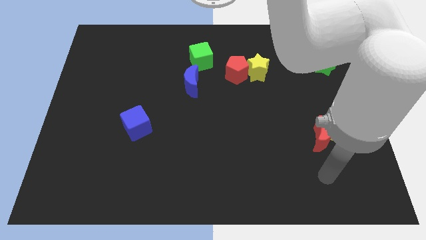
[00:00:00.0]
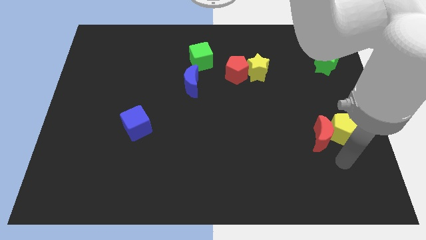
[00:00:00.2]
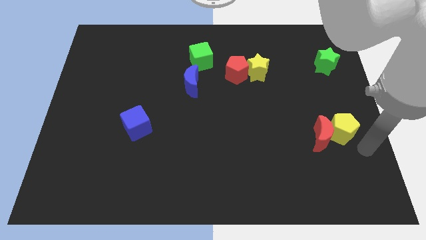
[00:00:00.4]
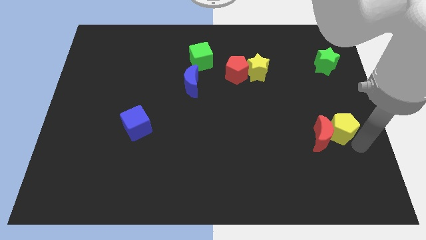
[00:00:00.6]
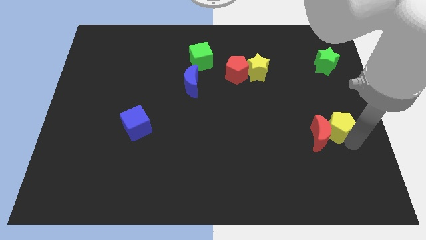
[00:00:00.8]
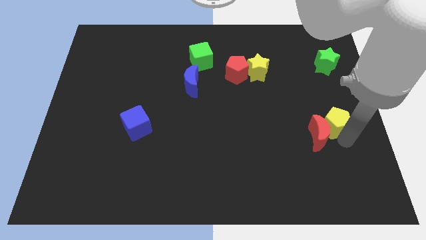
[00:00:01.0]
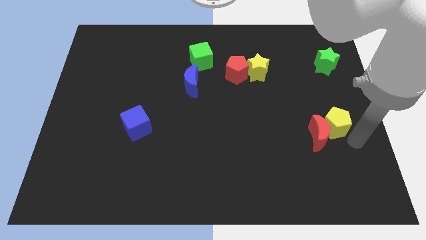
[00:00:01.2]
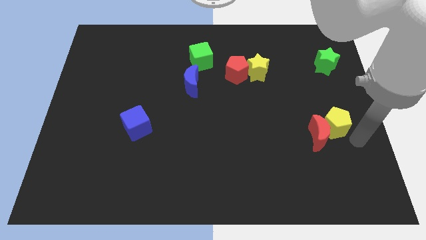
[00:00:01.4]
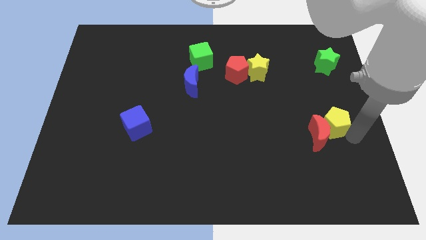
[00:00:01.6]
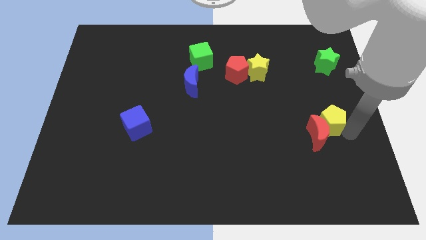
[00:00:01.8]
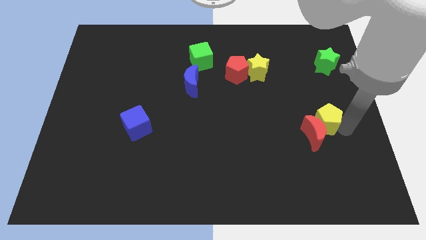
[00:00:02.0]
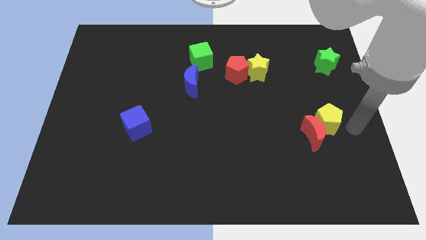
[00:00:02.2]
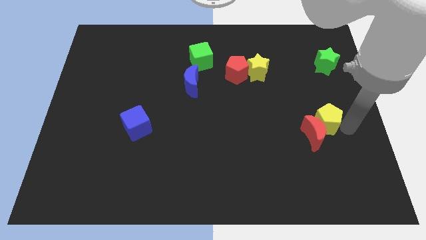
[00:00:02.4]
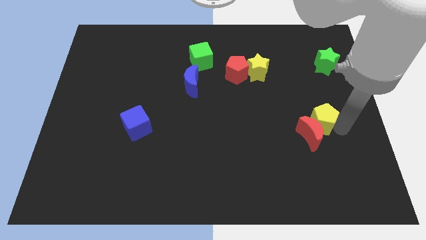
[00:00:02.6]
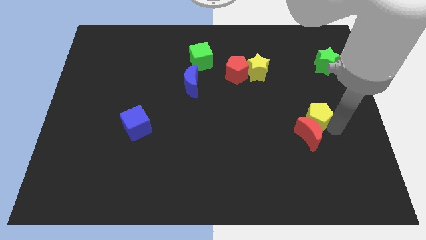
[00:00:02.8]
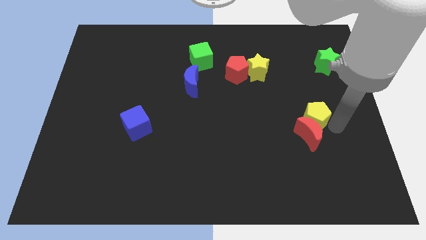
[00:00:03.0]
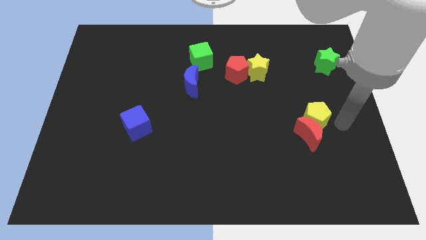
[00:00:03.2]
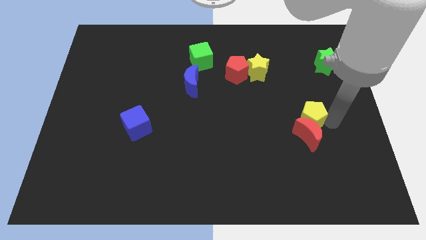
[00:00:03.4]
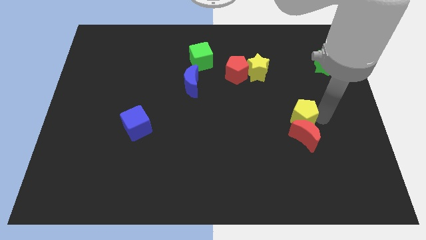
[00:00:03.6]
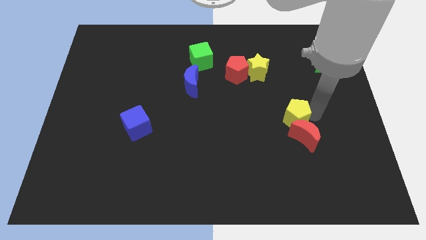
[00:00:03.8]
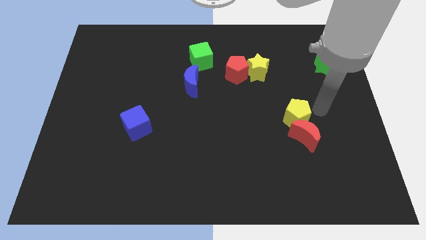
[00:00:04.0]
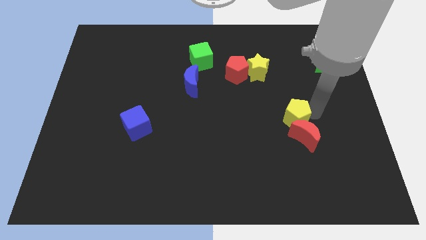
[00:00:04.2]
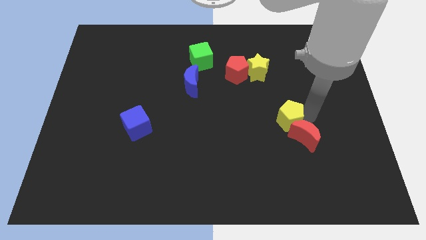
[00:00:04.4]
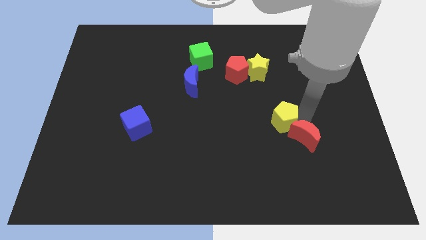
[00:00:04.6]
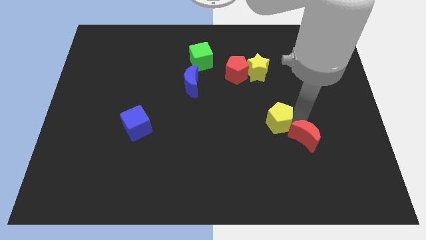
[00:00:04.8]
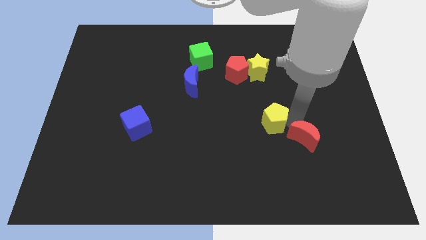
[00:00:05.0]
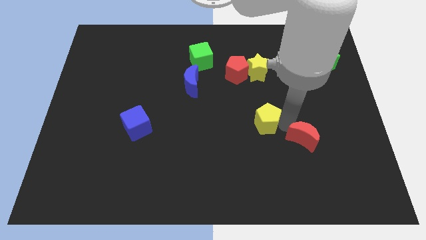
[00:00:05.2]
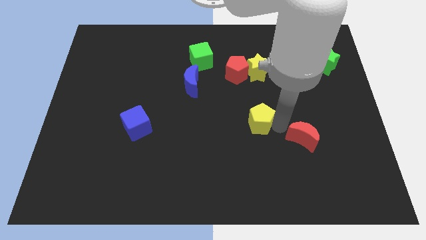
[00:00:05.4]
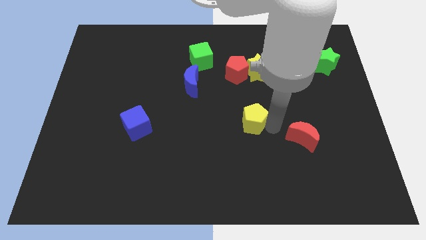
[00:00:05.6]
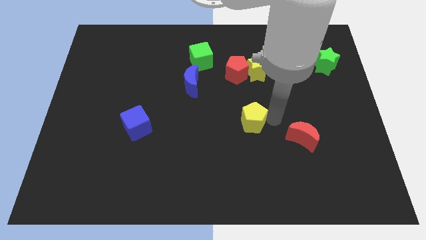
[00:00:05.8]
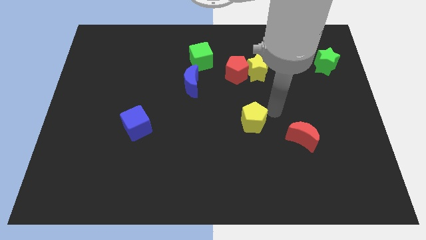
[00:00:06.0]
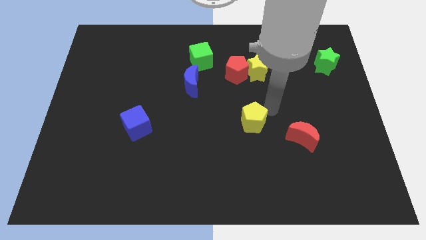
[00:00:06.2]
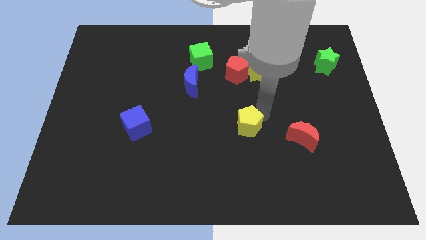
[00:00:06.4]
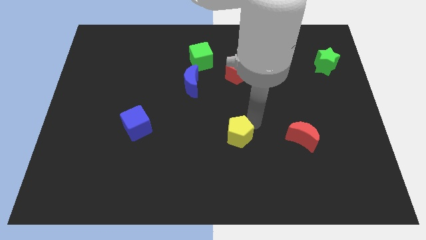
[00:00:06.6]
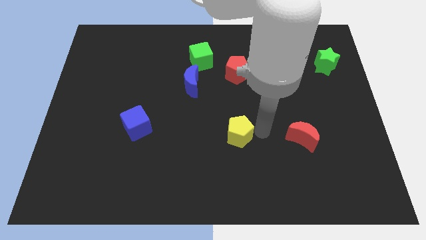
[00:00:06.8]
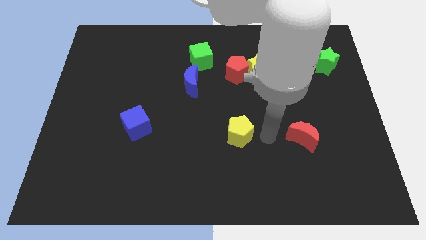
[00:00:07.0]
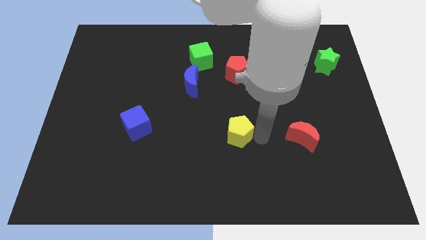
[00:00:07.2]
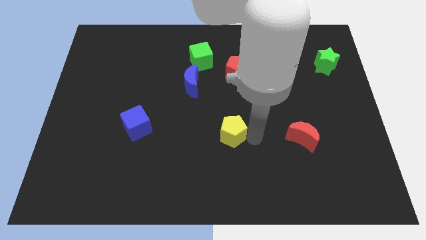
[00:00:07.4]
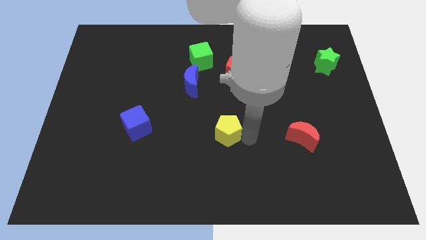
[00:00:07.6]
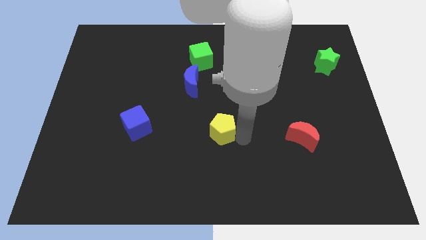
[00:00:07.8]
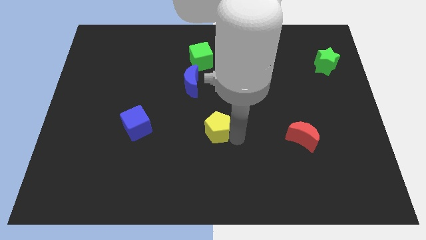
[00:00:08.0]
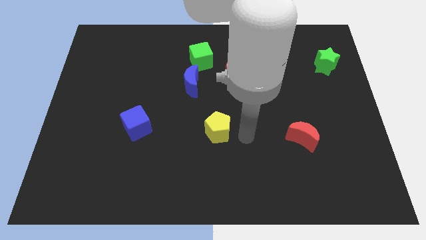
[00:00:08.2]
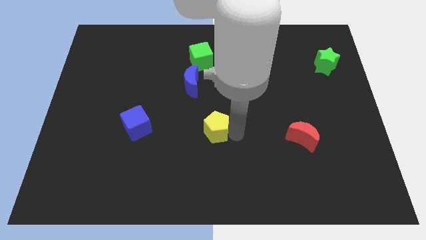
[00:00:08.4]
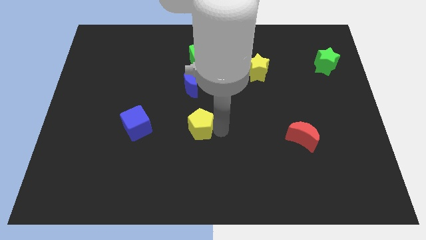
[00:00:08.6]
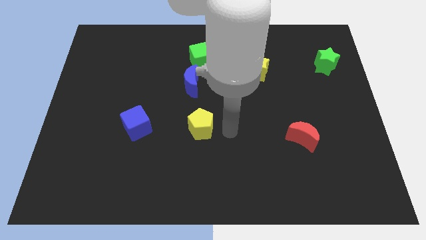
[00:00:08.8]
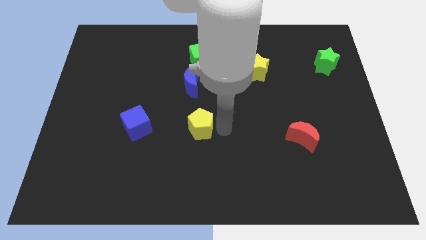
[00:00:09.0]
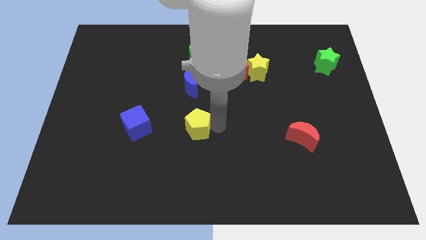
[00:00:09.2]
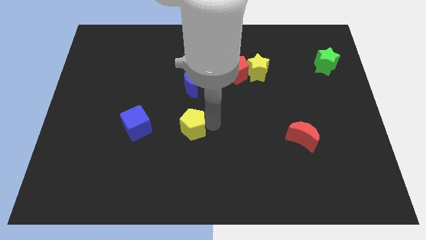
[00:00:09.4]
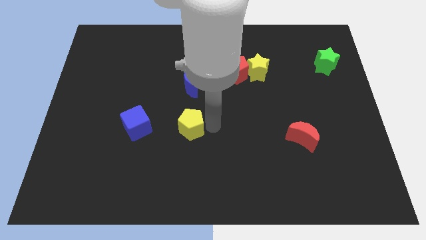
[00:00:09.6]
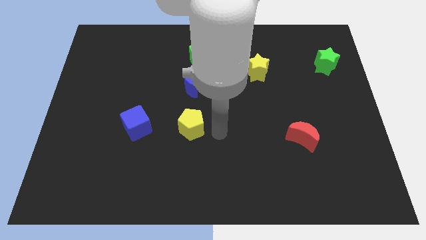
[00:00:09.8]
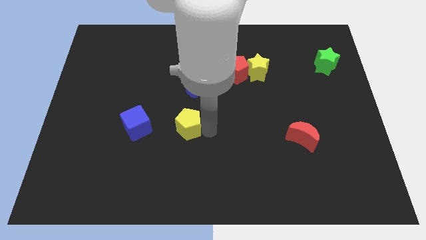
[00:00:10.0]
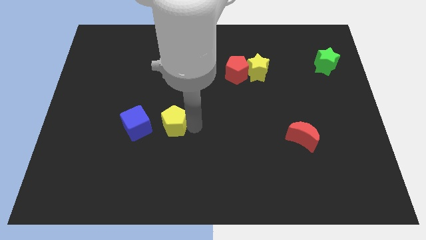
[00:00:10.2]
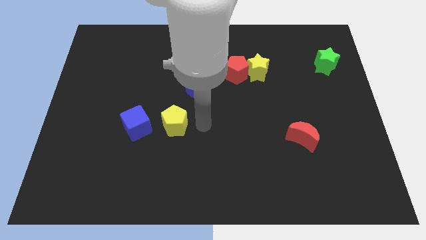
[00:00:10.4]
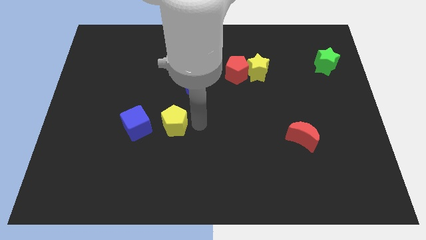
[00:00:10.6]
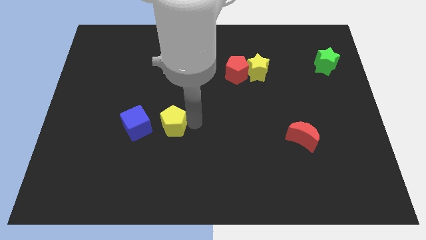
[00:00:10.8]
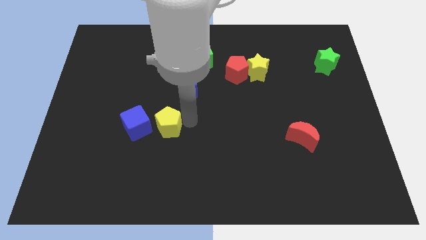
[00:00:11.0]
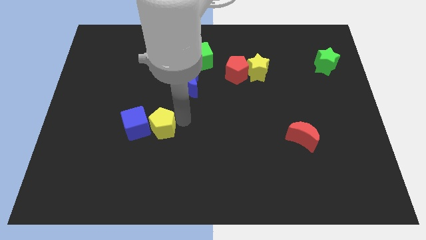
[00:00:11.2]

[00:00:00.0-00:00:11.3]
put the yellow pentagon next to the blue cube
